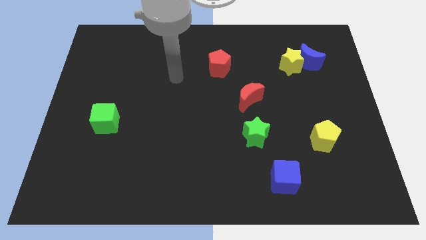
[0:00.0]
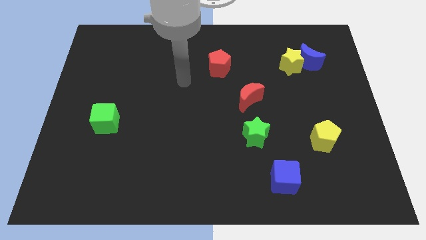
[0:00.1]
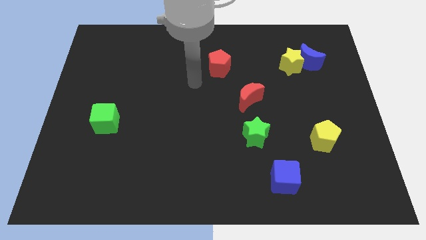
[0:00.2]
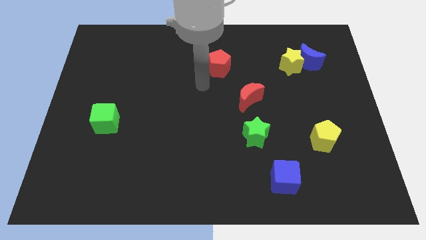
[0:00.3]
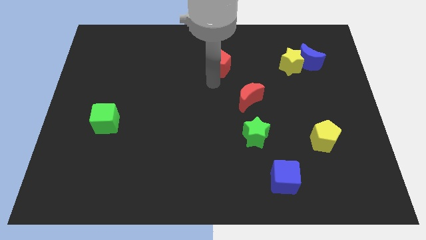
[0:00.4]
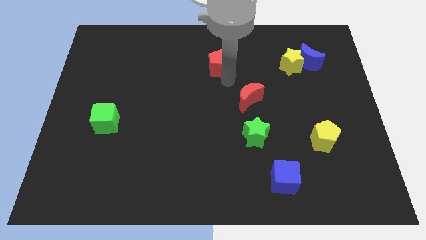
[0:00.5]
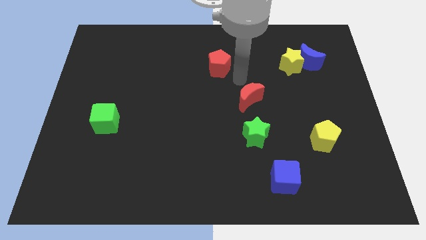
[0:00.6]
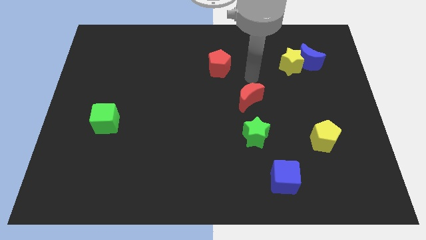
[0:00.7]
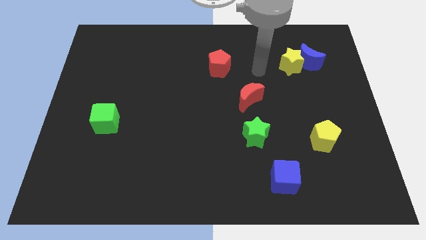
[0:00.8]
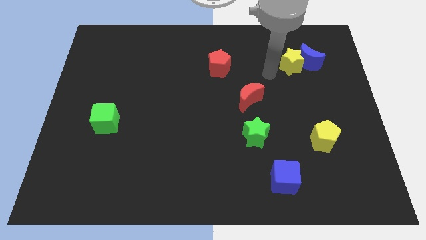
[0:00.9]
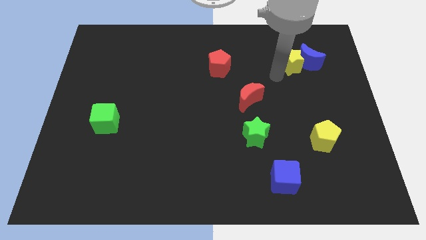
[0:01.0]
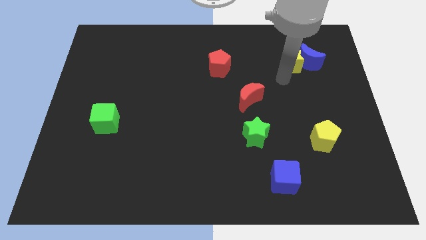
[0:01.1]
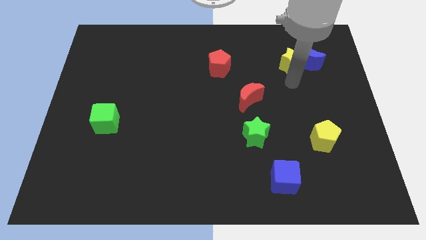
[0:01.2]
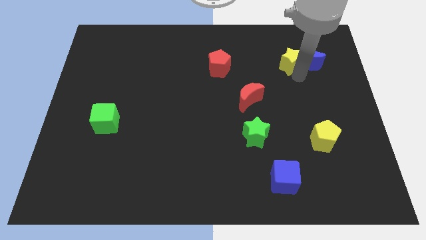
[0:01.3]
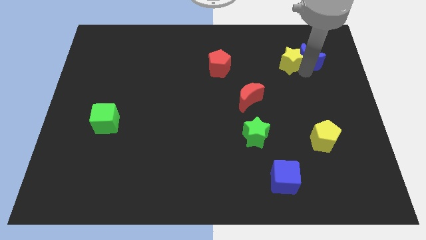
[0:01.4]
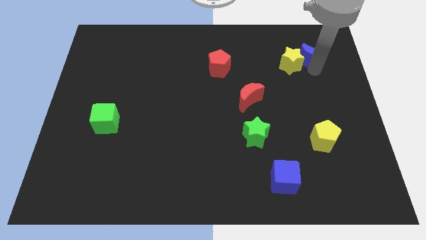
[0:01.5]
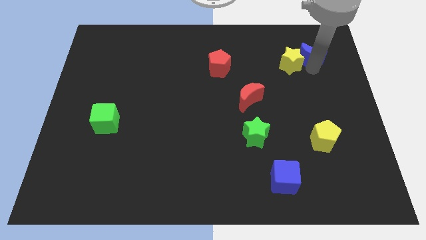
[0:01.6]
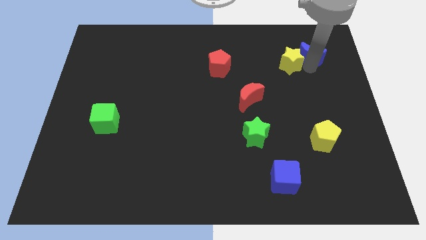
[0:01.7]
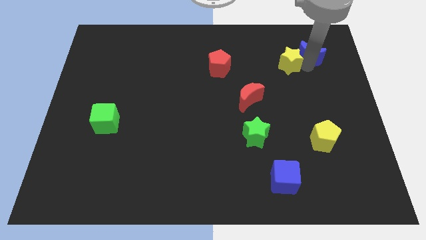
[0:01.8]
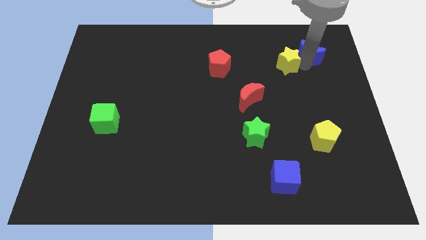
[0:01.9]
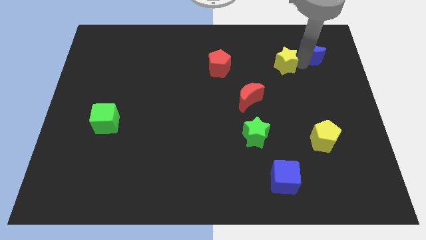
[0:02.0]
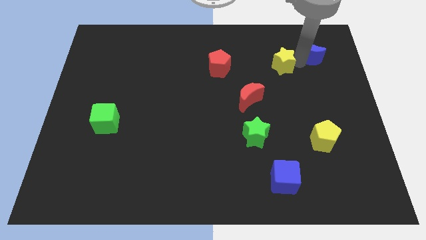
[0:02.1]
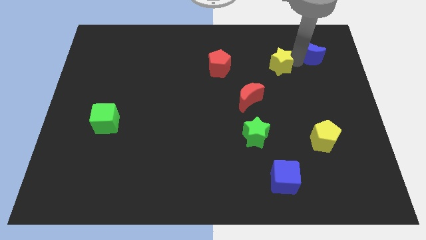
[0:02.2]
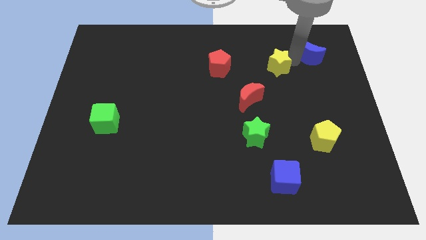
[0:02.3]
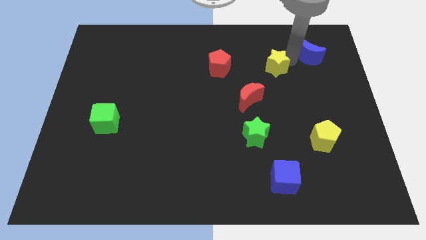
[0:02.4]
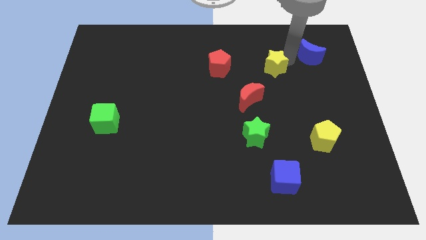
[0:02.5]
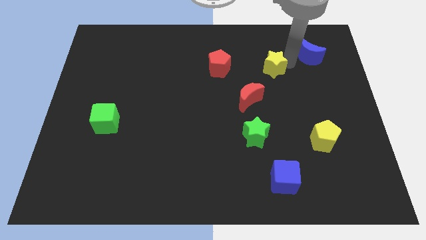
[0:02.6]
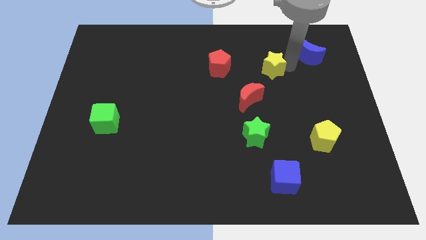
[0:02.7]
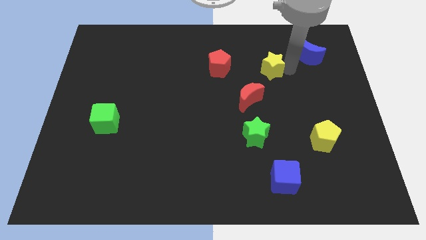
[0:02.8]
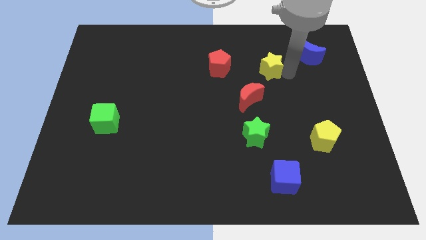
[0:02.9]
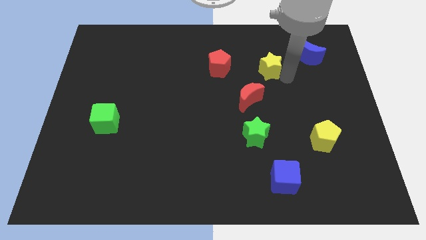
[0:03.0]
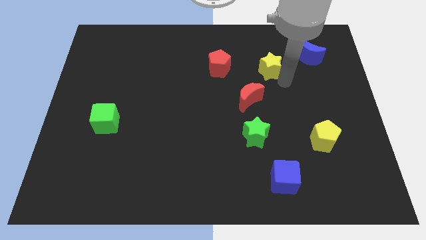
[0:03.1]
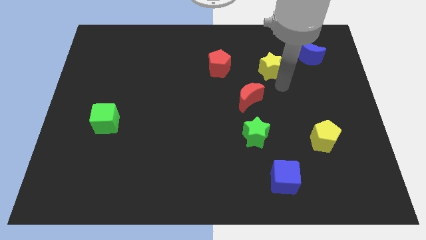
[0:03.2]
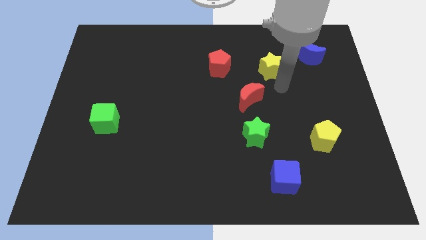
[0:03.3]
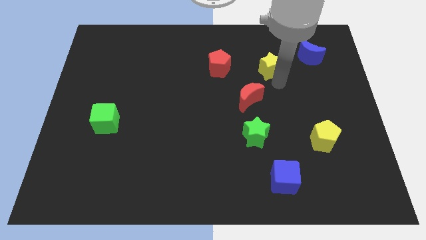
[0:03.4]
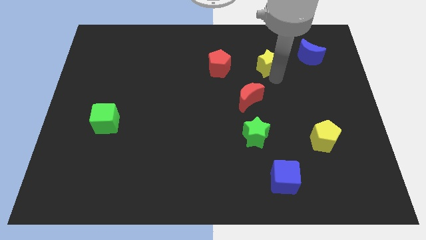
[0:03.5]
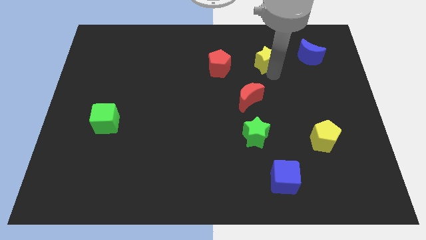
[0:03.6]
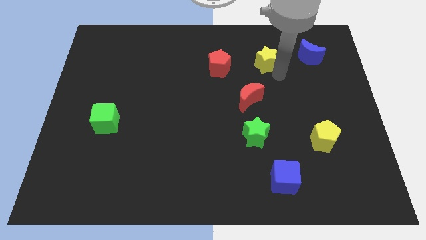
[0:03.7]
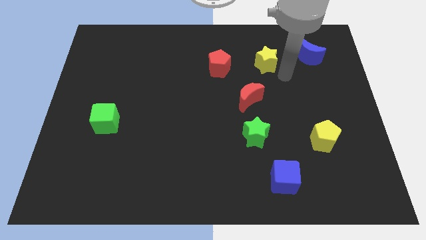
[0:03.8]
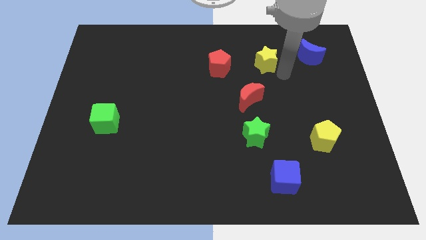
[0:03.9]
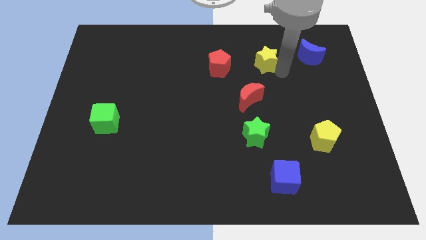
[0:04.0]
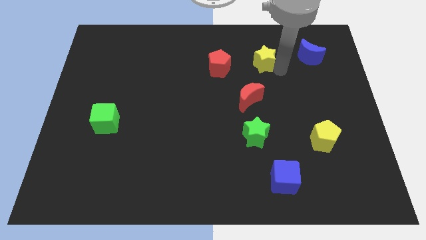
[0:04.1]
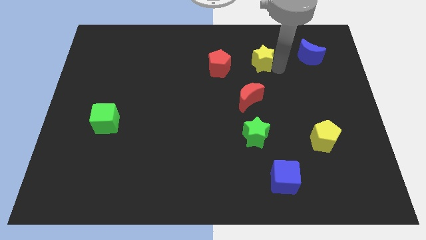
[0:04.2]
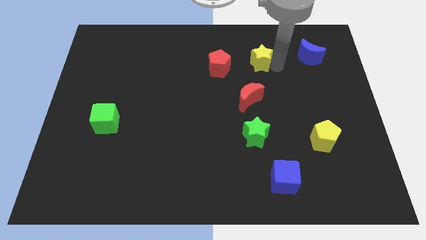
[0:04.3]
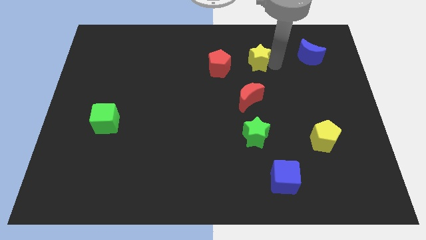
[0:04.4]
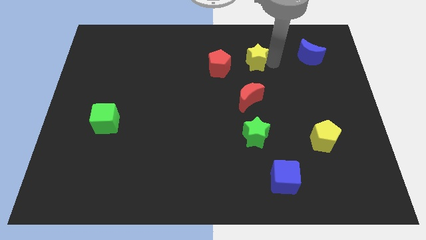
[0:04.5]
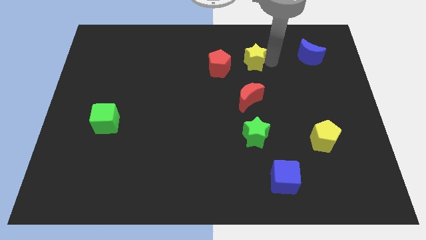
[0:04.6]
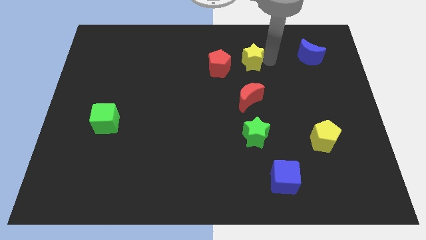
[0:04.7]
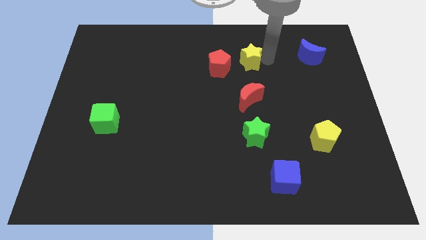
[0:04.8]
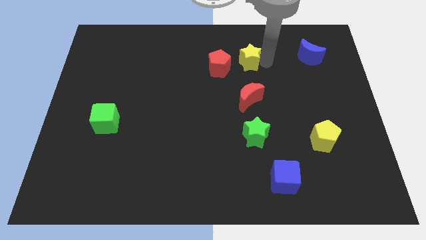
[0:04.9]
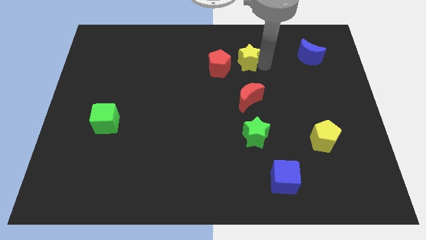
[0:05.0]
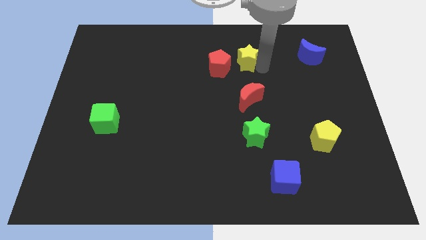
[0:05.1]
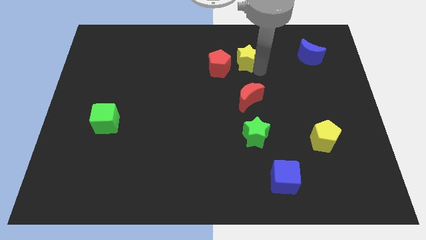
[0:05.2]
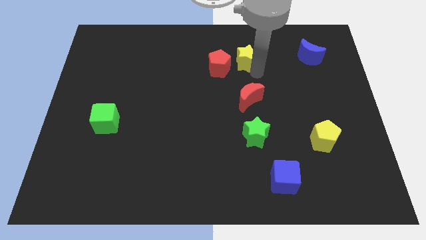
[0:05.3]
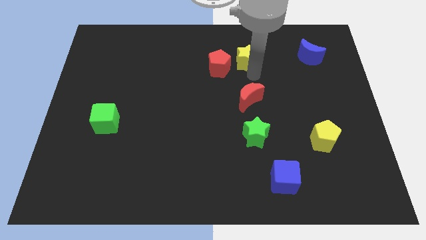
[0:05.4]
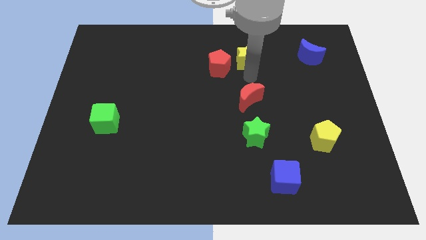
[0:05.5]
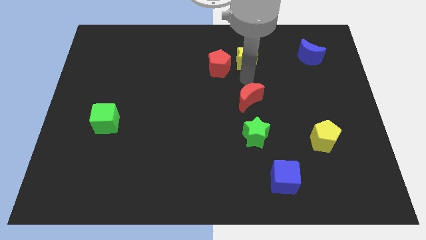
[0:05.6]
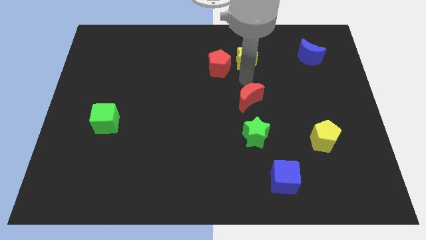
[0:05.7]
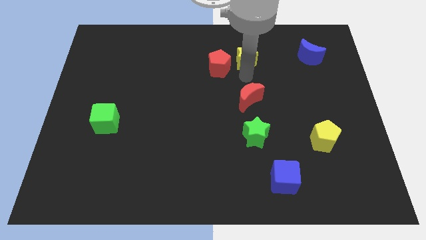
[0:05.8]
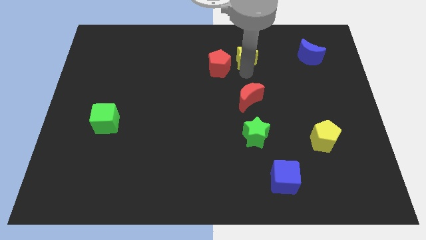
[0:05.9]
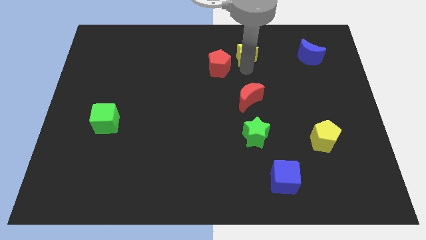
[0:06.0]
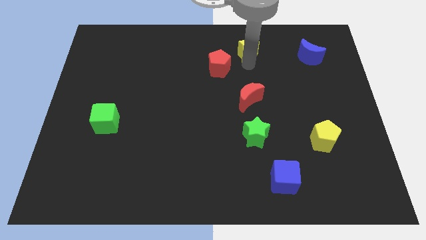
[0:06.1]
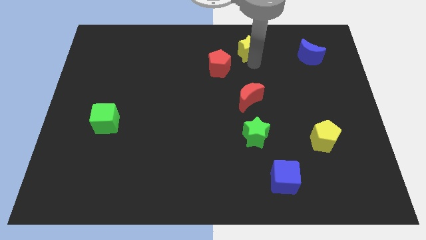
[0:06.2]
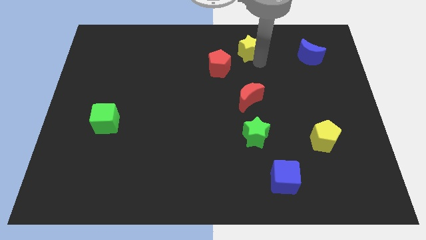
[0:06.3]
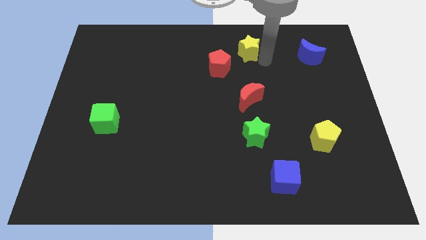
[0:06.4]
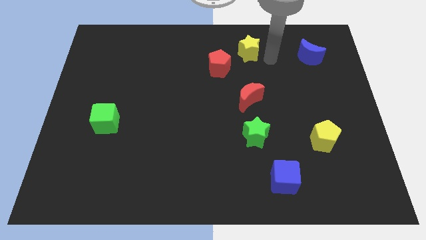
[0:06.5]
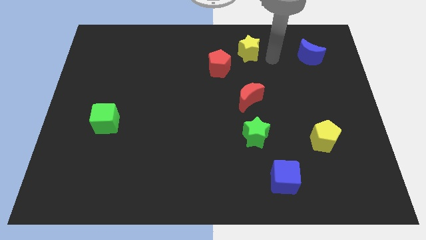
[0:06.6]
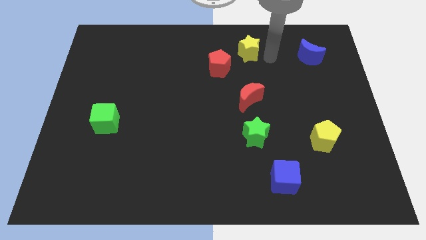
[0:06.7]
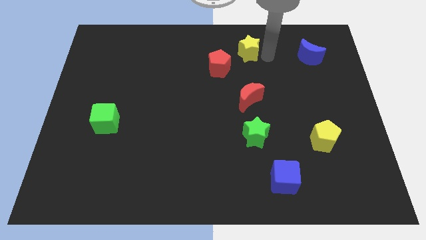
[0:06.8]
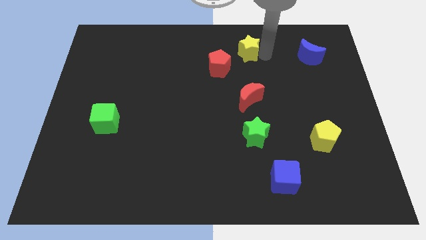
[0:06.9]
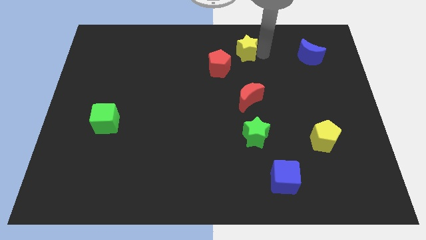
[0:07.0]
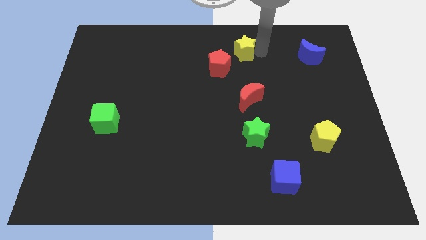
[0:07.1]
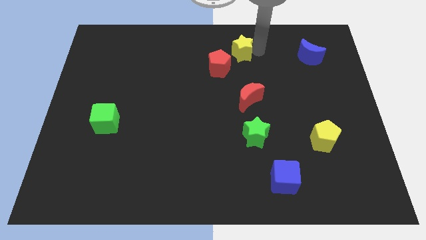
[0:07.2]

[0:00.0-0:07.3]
move the yellow star to the top side
